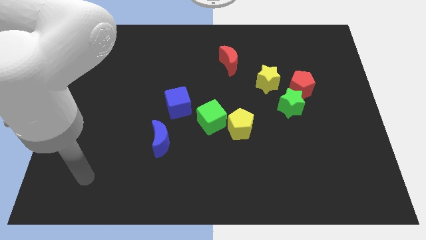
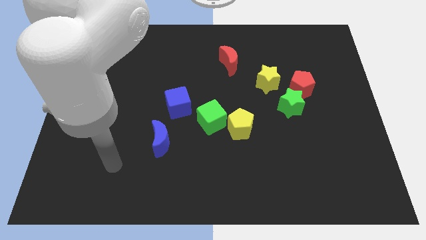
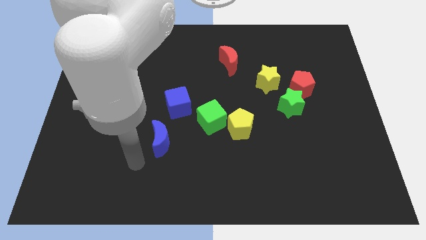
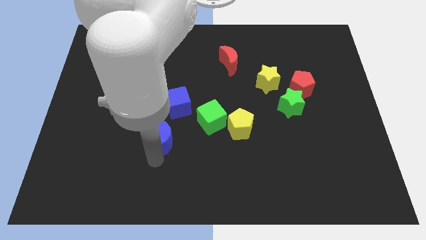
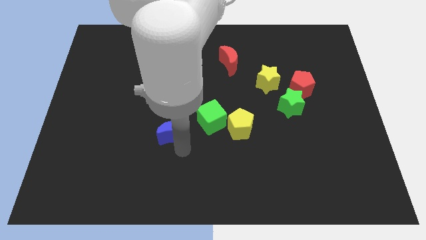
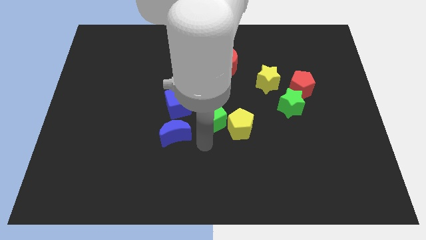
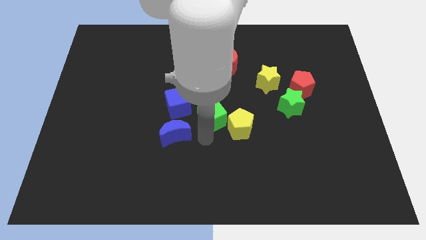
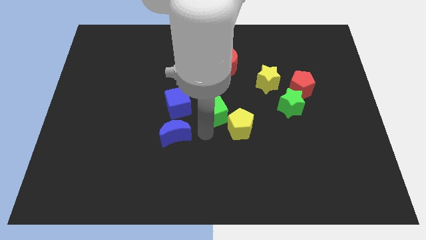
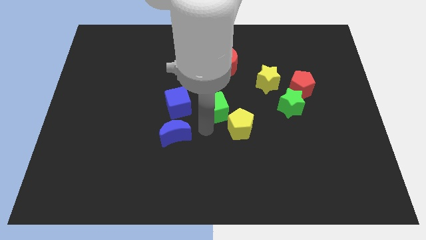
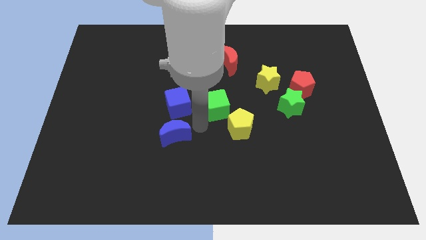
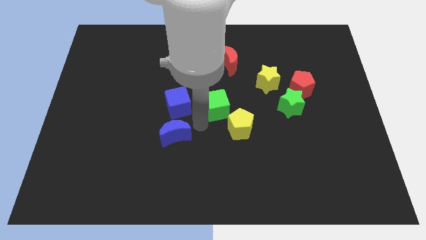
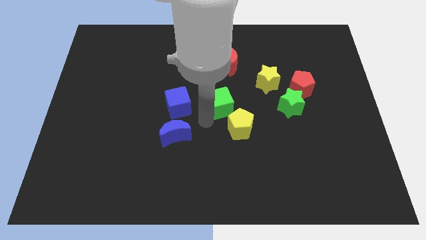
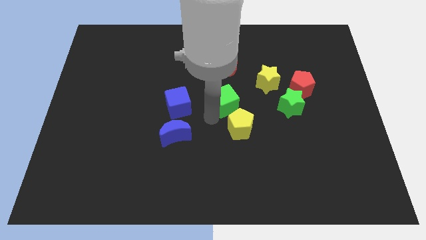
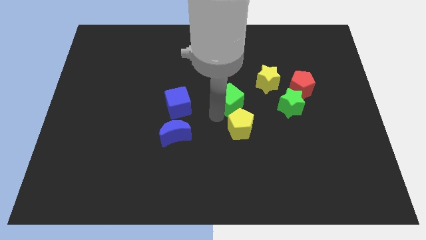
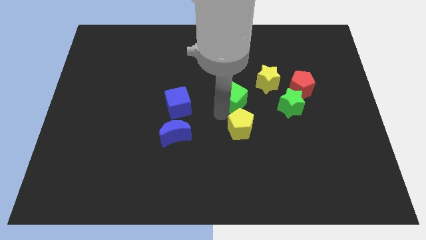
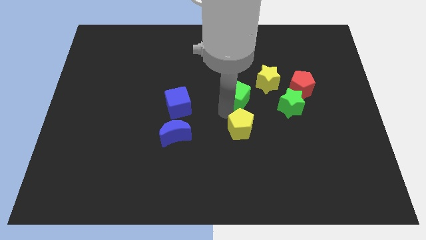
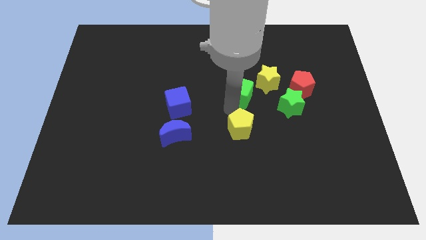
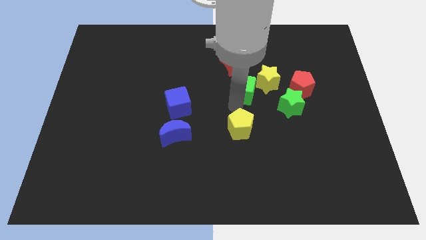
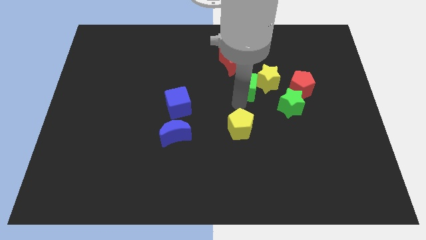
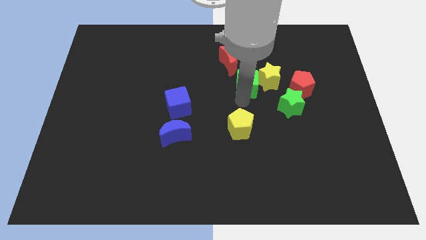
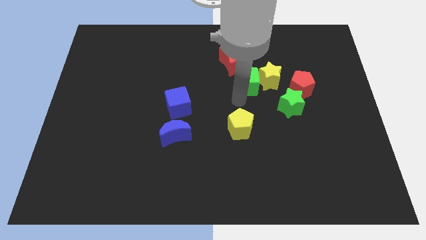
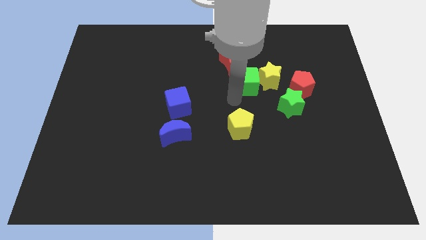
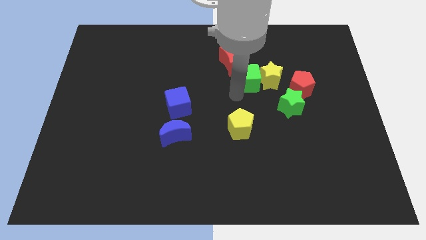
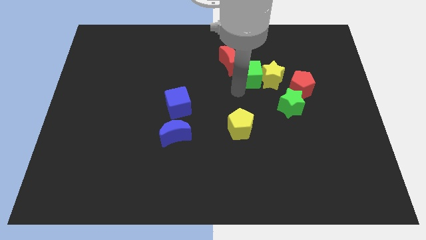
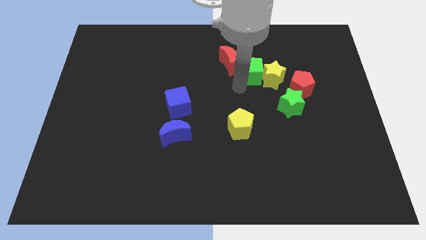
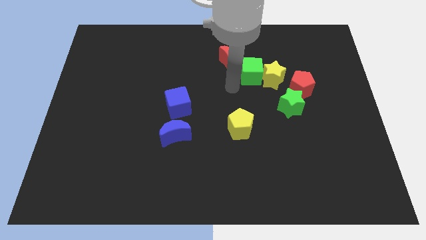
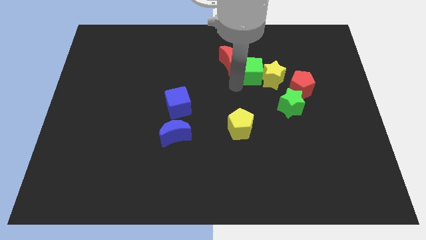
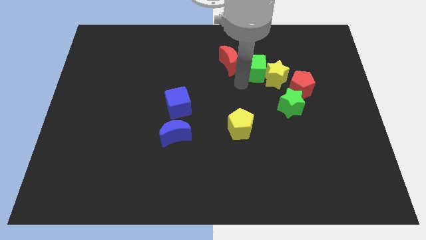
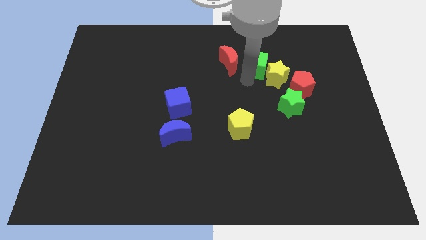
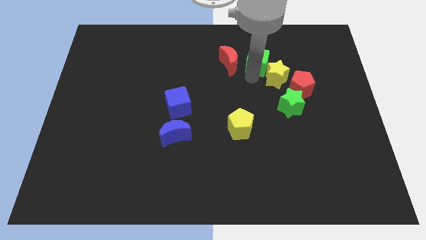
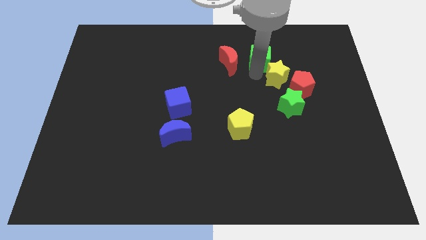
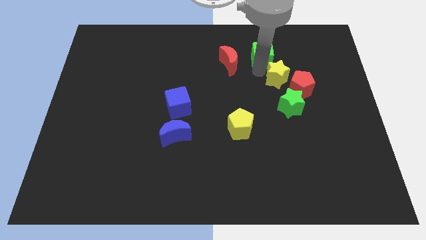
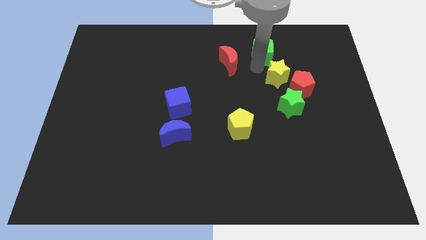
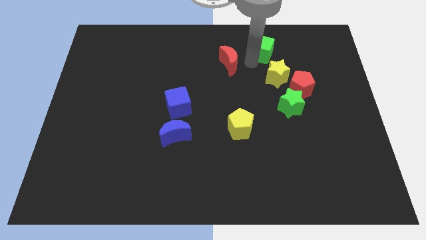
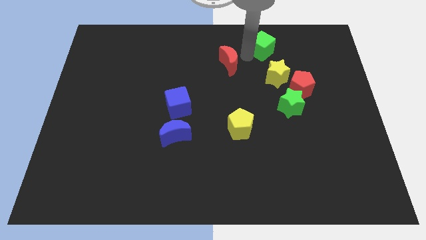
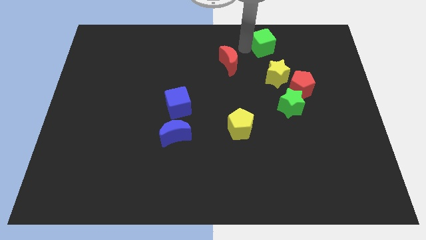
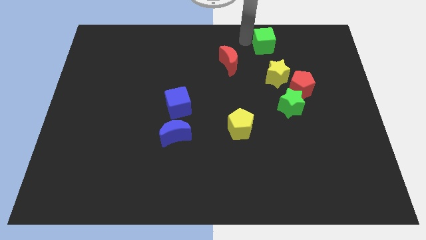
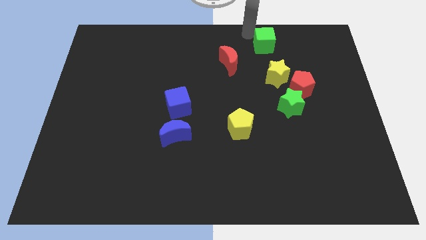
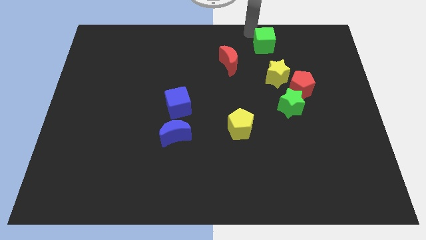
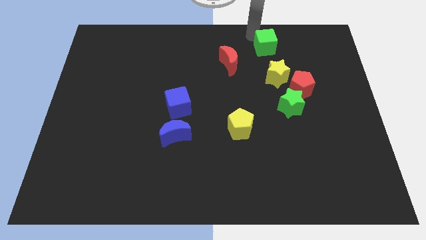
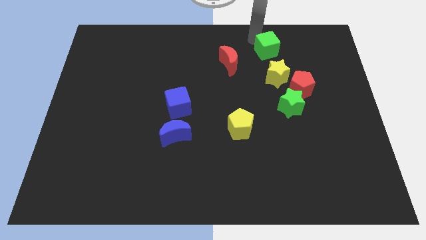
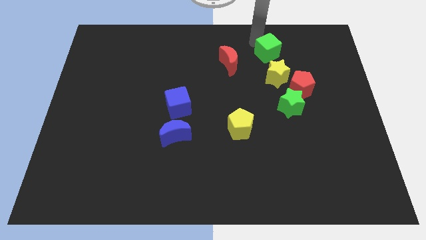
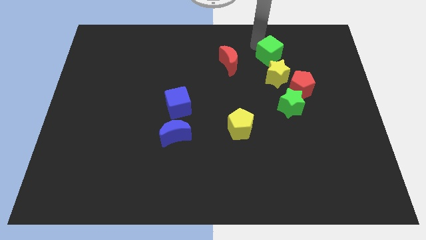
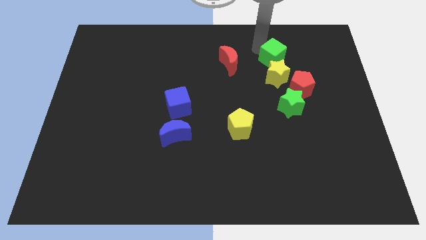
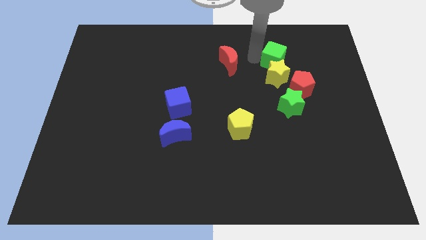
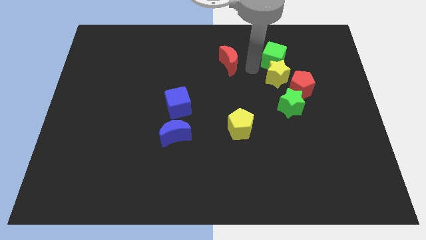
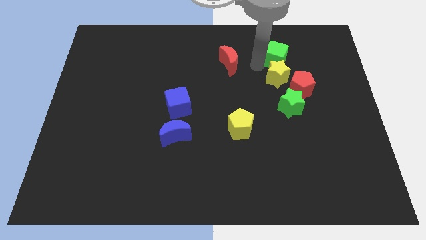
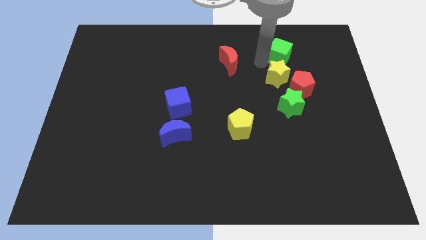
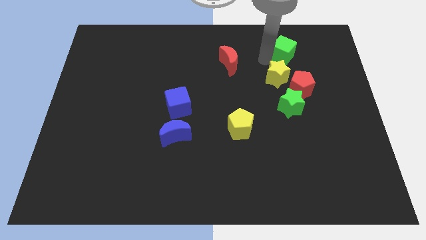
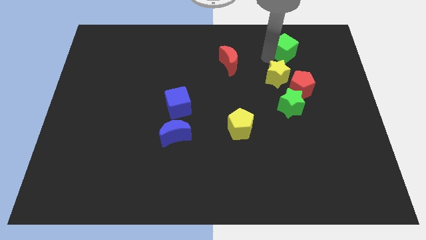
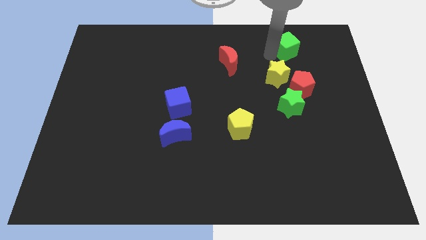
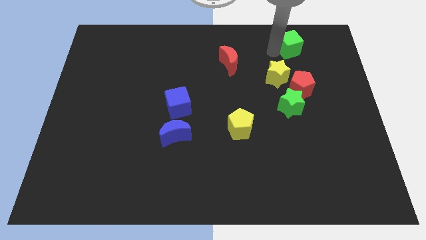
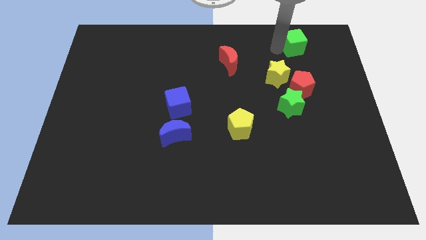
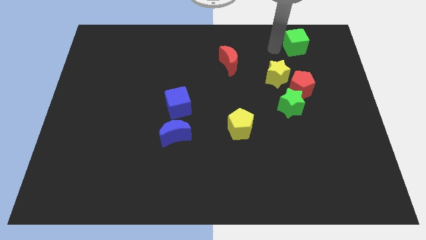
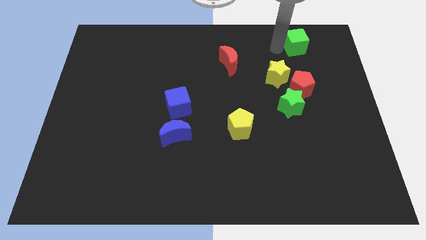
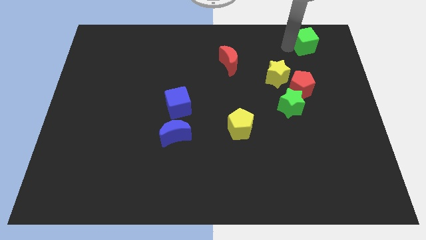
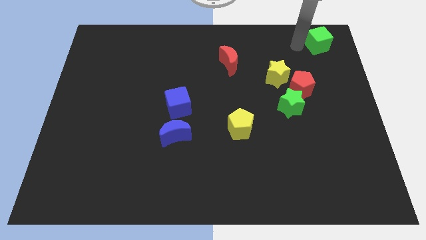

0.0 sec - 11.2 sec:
move the green cube to the top right of the board
